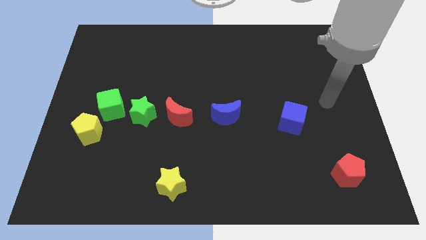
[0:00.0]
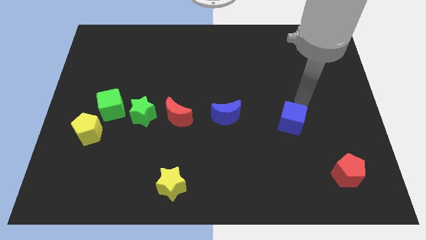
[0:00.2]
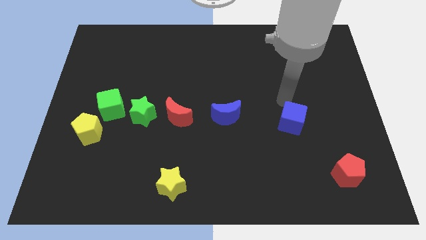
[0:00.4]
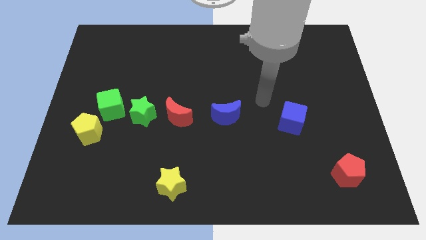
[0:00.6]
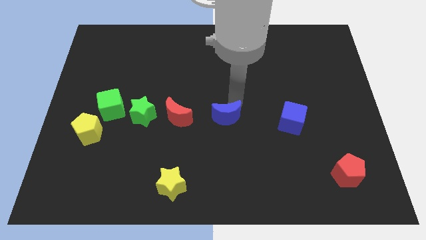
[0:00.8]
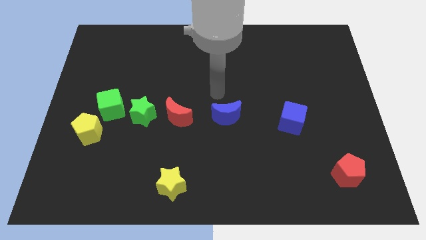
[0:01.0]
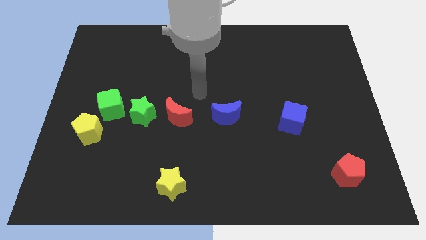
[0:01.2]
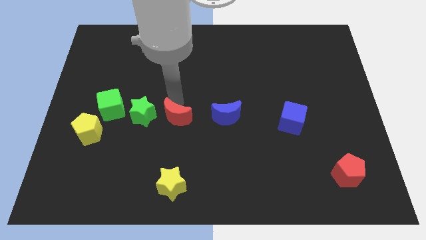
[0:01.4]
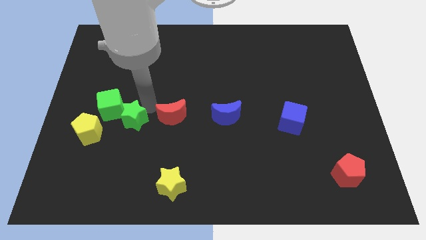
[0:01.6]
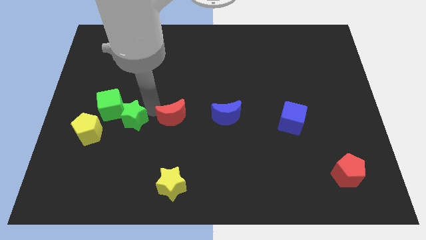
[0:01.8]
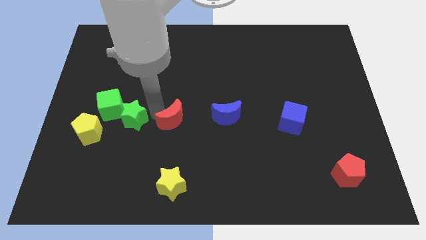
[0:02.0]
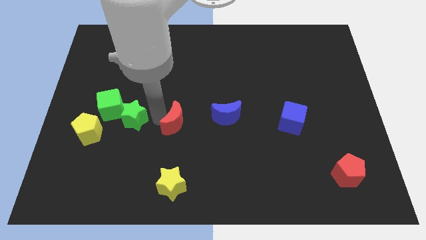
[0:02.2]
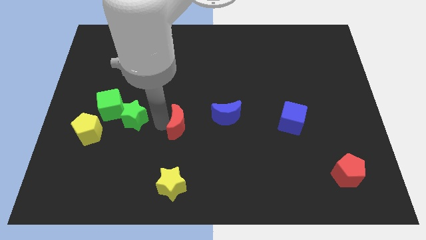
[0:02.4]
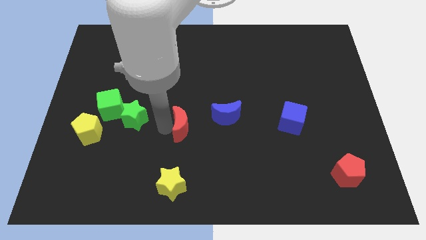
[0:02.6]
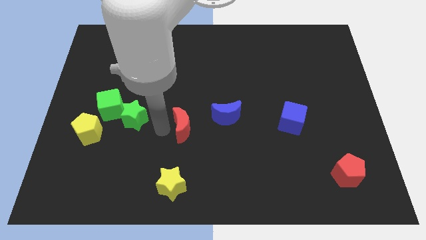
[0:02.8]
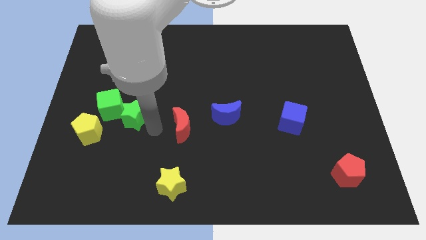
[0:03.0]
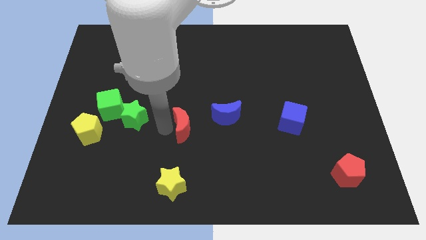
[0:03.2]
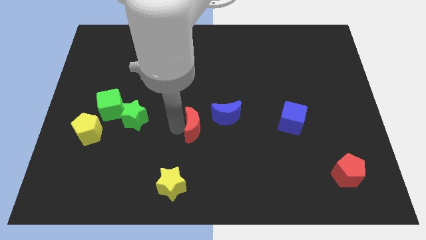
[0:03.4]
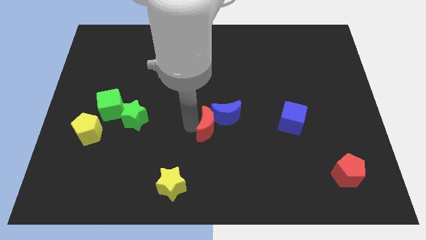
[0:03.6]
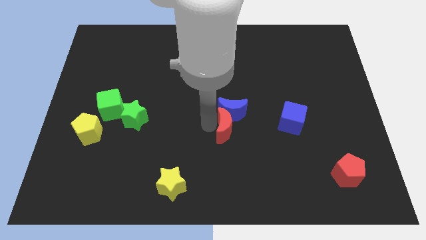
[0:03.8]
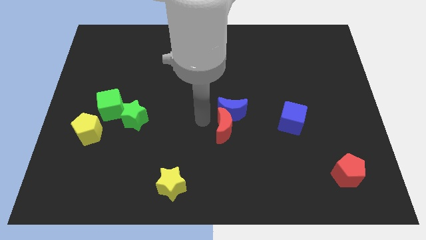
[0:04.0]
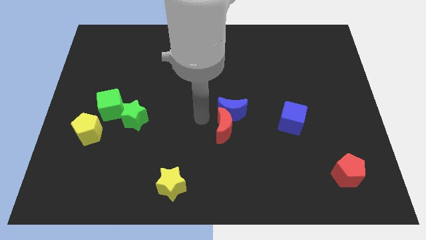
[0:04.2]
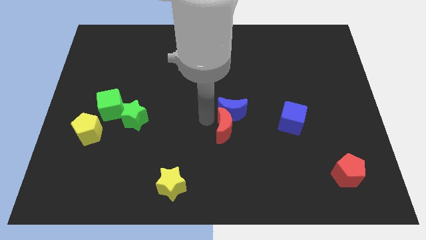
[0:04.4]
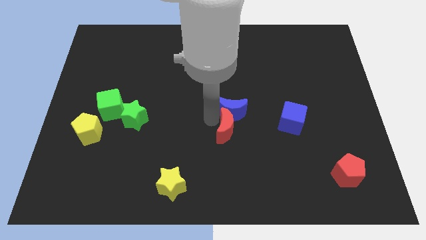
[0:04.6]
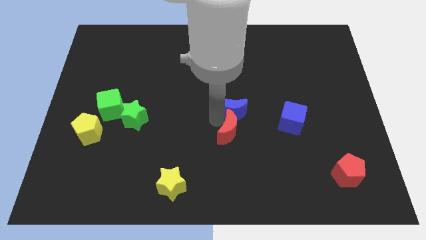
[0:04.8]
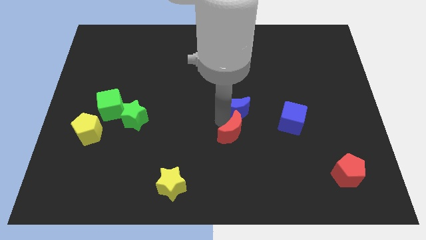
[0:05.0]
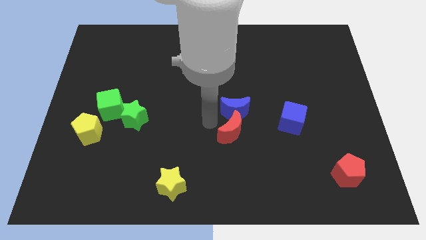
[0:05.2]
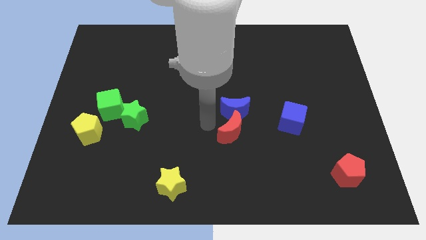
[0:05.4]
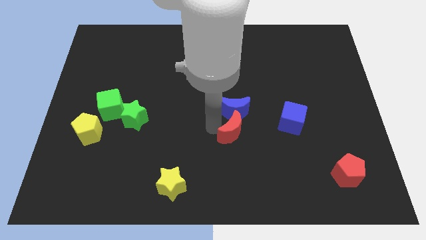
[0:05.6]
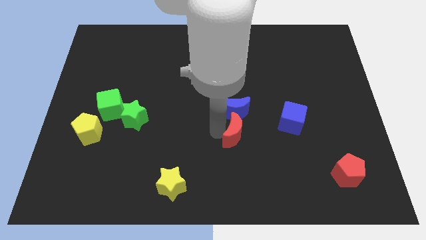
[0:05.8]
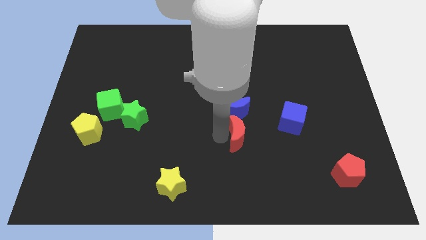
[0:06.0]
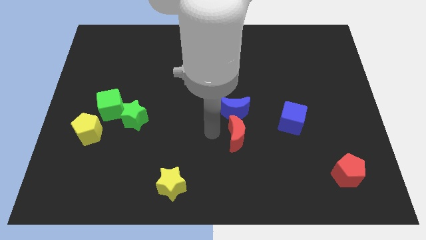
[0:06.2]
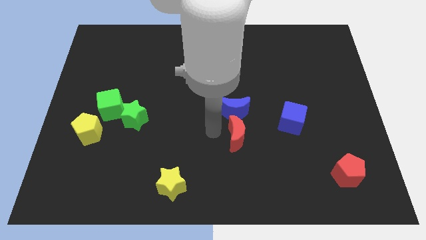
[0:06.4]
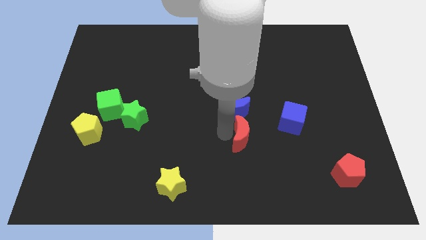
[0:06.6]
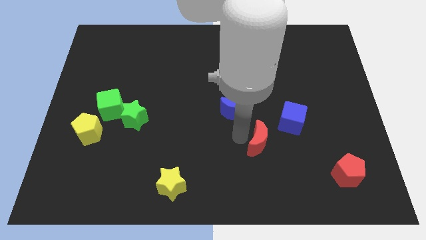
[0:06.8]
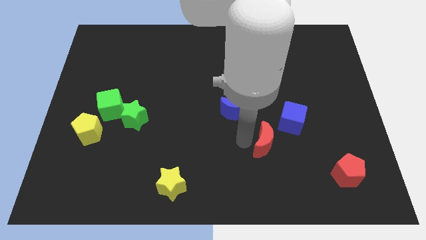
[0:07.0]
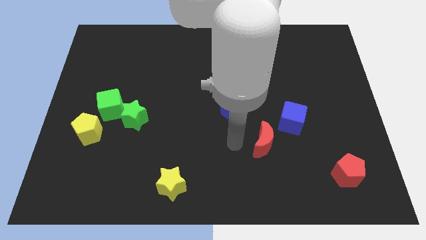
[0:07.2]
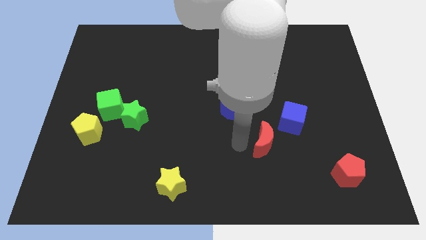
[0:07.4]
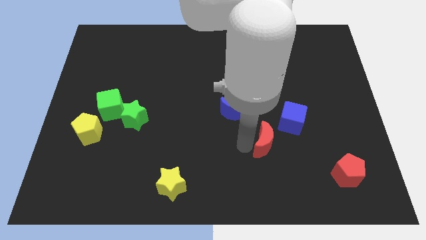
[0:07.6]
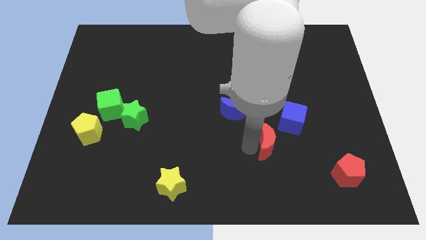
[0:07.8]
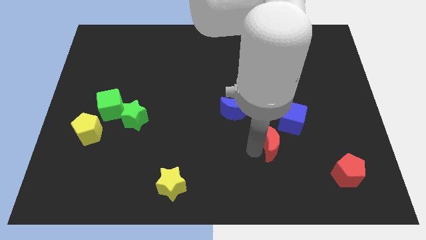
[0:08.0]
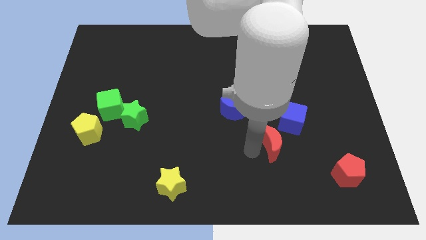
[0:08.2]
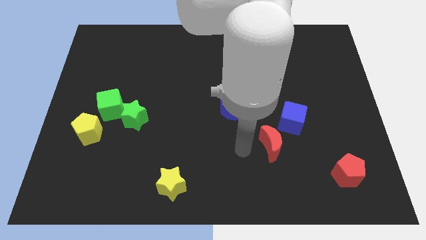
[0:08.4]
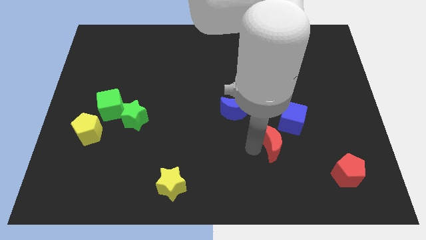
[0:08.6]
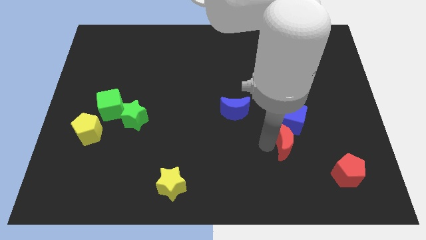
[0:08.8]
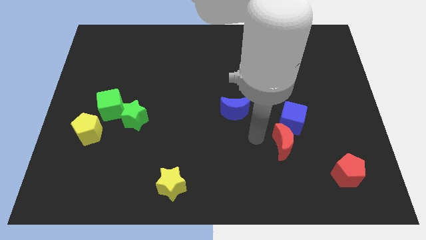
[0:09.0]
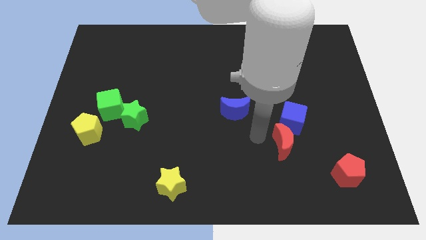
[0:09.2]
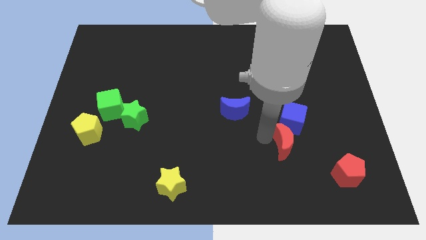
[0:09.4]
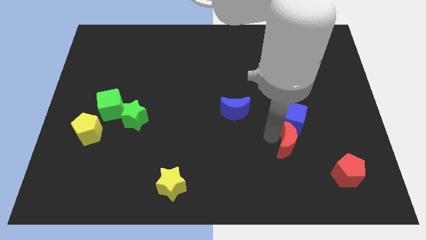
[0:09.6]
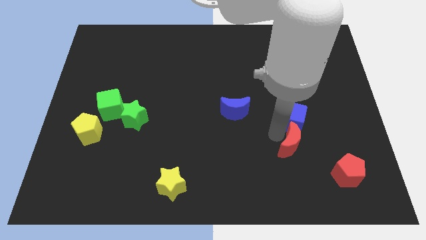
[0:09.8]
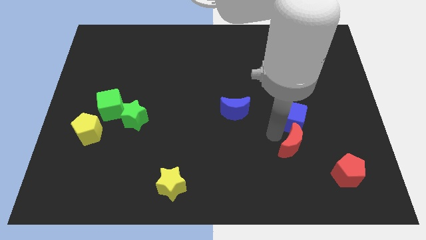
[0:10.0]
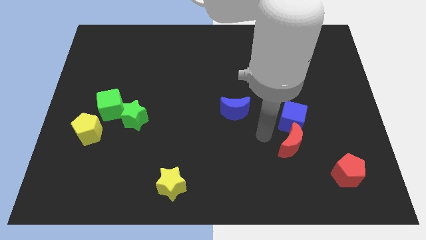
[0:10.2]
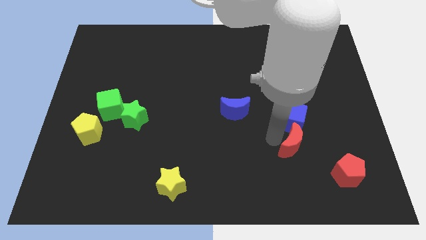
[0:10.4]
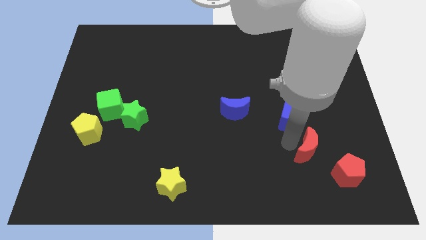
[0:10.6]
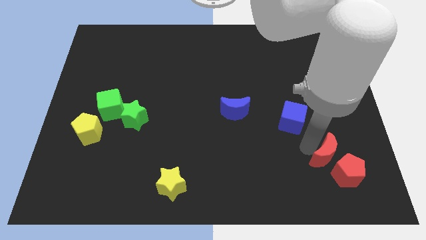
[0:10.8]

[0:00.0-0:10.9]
push the red moon to the red pentagon

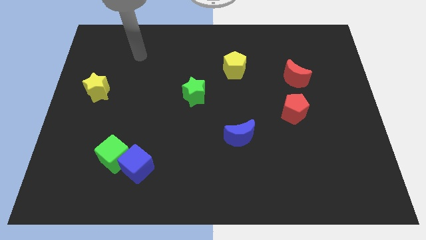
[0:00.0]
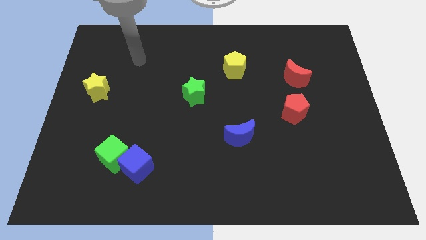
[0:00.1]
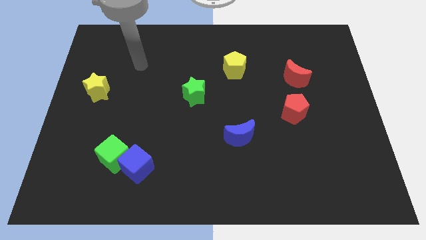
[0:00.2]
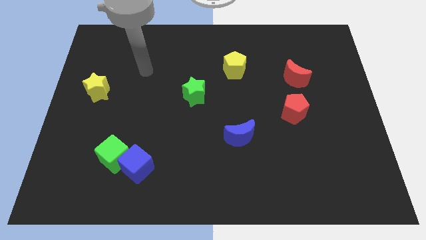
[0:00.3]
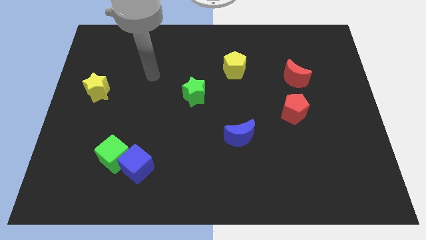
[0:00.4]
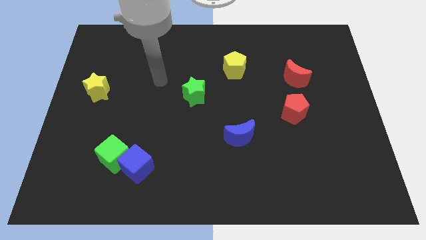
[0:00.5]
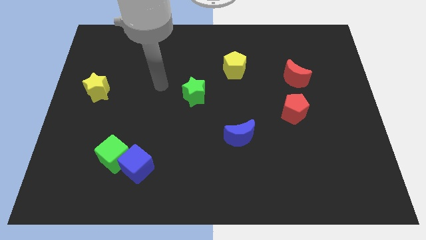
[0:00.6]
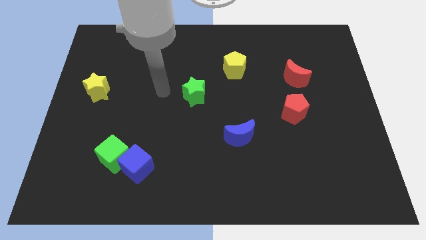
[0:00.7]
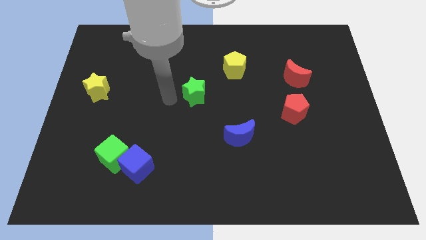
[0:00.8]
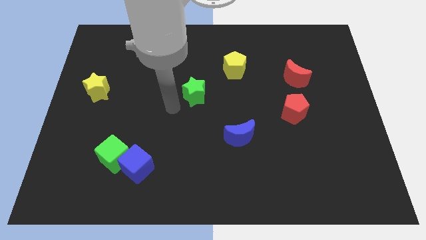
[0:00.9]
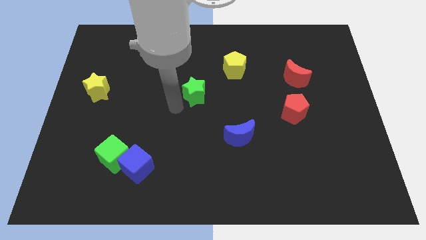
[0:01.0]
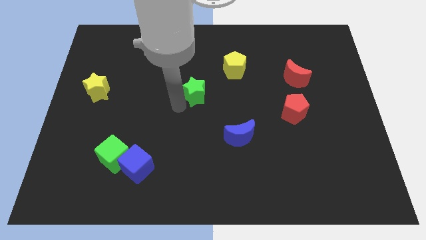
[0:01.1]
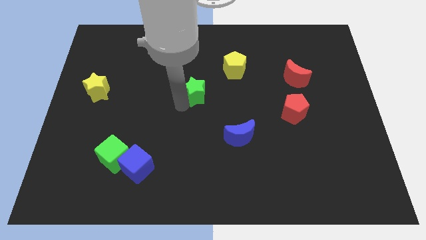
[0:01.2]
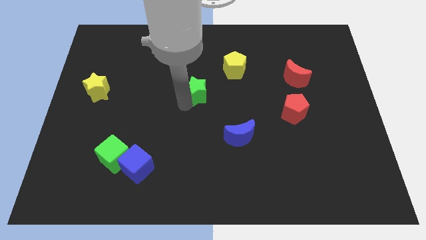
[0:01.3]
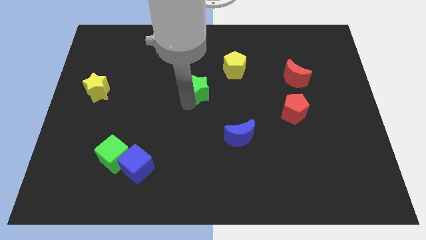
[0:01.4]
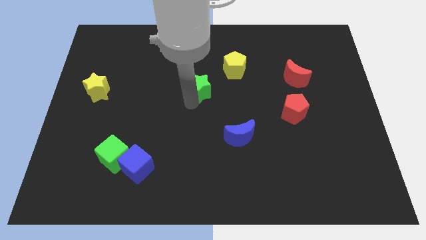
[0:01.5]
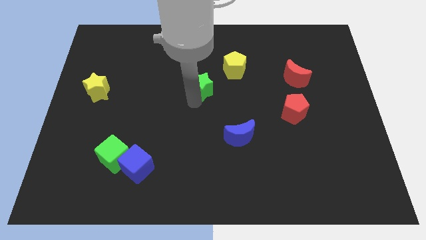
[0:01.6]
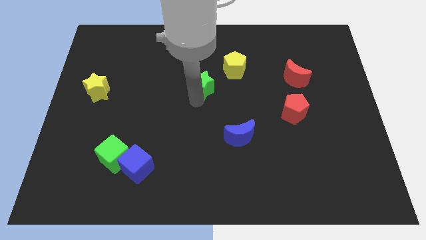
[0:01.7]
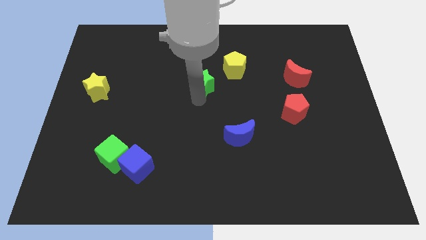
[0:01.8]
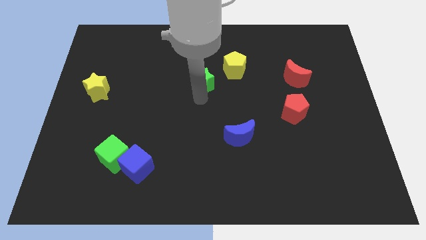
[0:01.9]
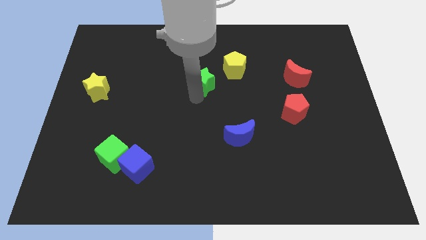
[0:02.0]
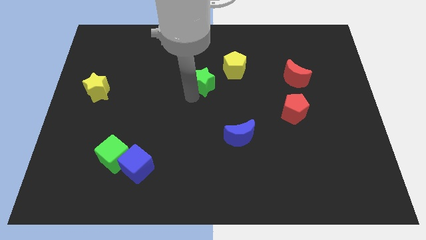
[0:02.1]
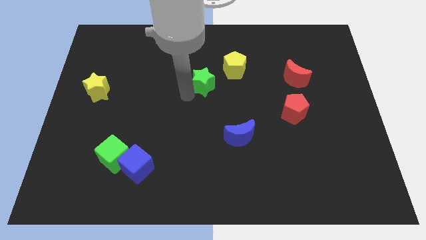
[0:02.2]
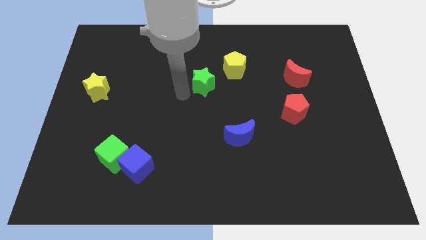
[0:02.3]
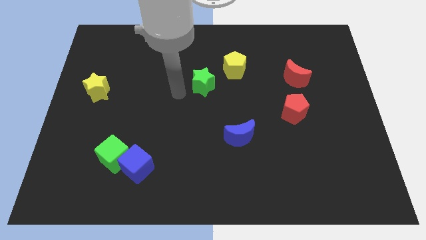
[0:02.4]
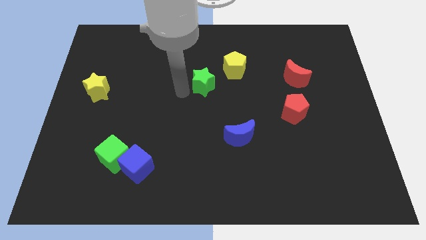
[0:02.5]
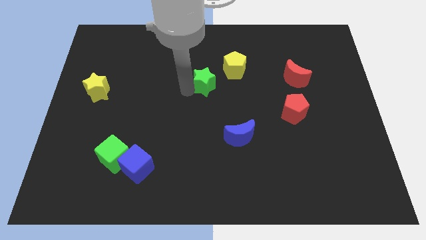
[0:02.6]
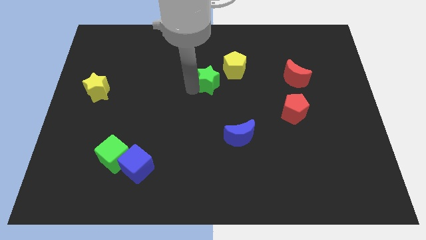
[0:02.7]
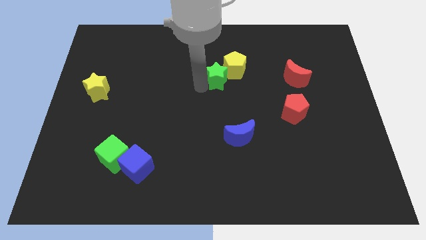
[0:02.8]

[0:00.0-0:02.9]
slide the green star to the yellow pentagon
